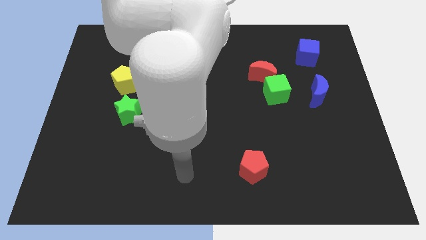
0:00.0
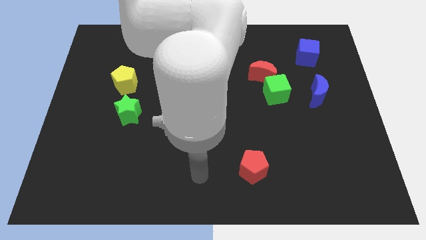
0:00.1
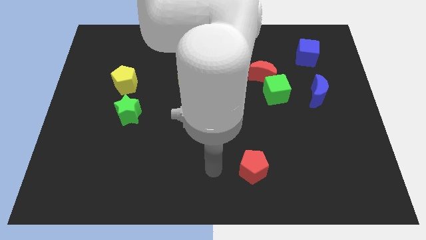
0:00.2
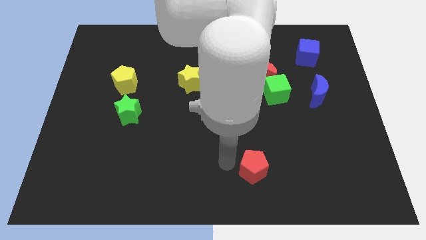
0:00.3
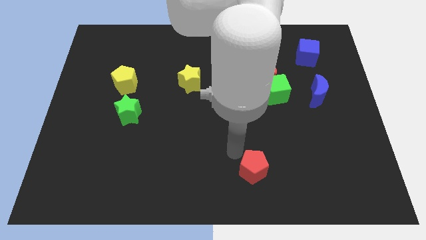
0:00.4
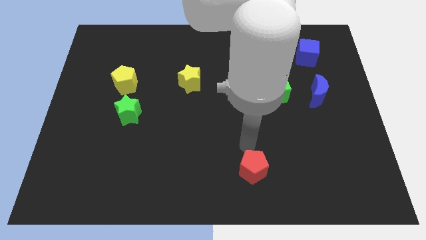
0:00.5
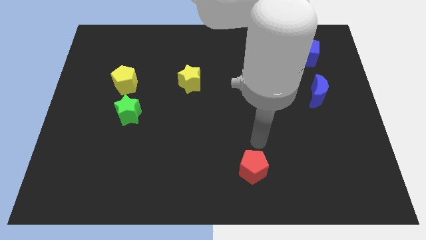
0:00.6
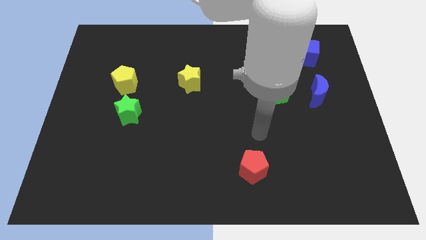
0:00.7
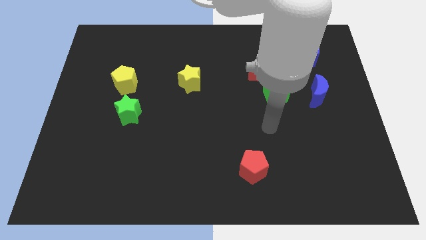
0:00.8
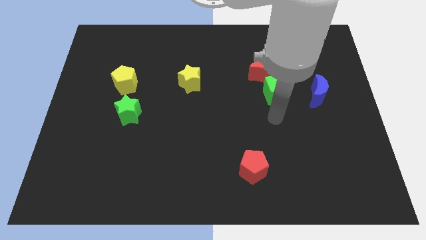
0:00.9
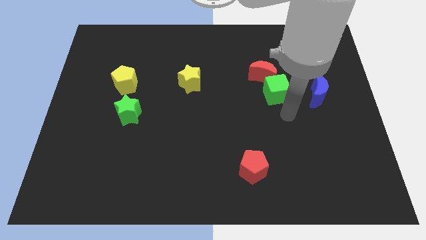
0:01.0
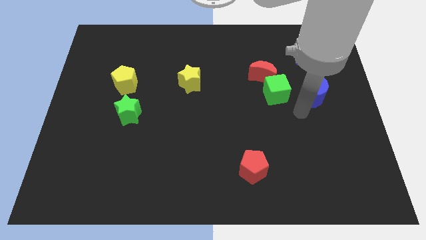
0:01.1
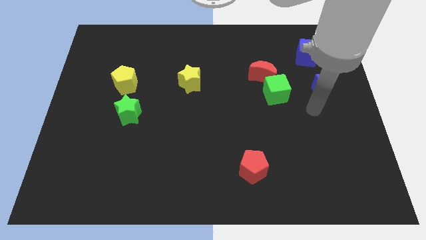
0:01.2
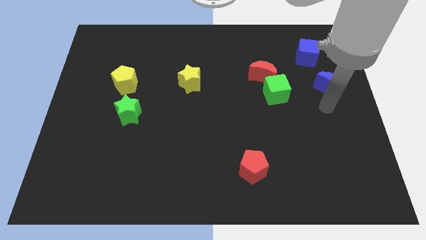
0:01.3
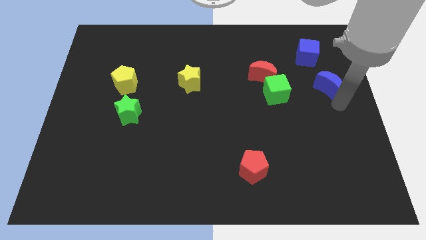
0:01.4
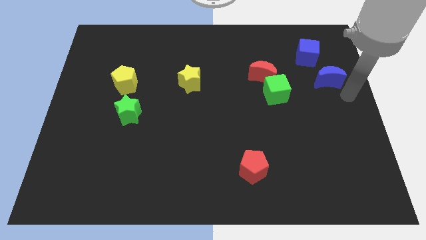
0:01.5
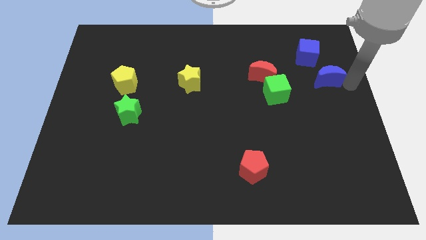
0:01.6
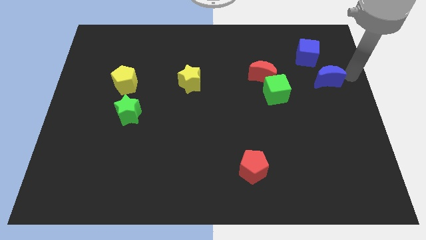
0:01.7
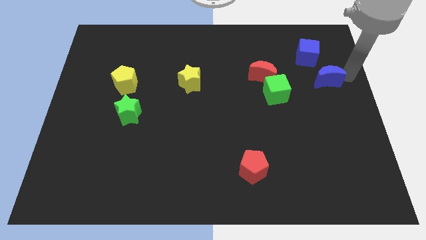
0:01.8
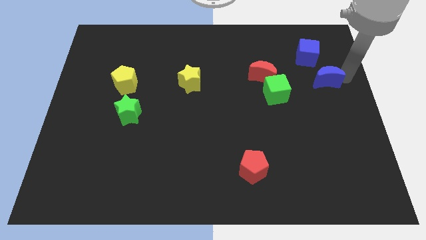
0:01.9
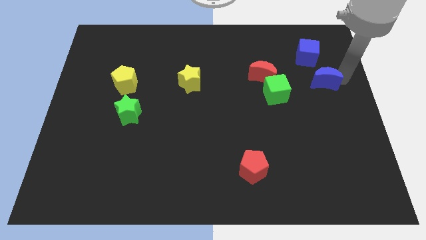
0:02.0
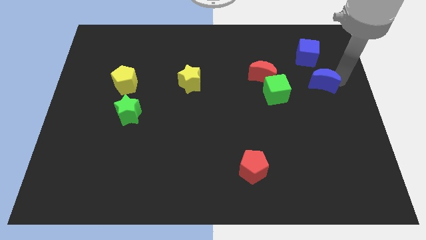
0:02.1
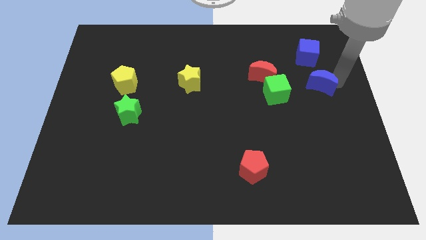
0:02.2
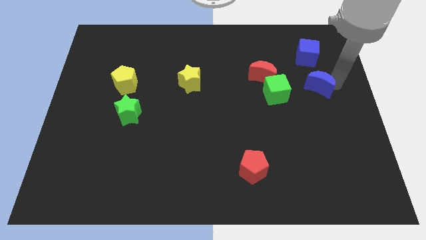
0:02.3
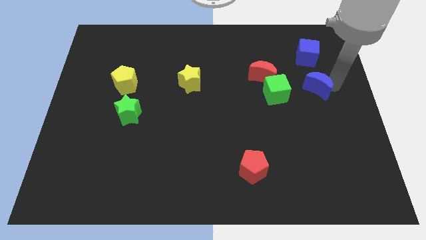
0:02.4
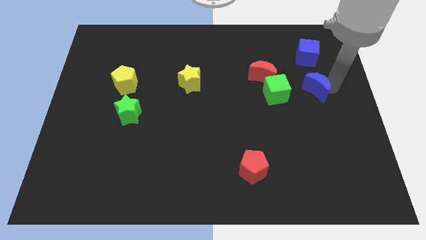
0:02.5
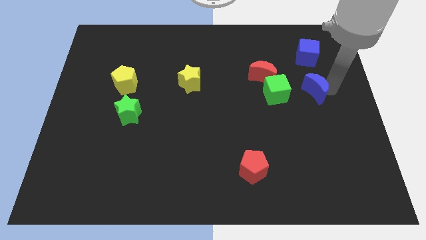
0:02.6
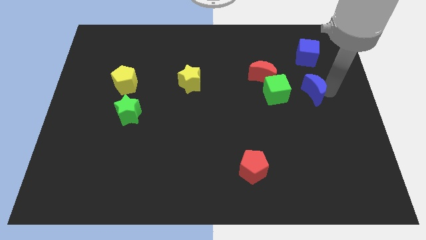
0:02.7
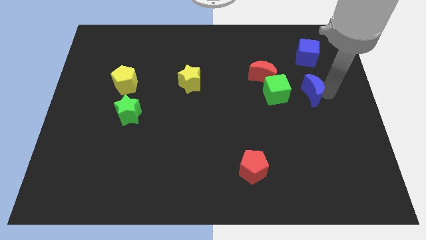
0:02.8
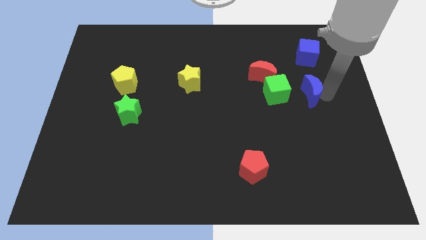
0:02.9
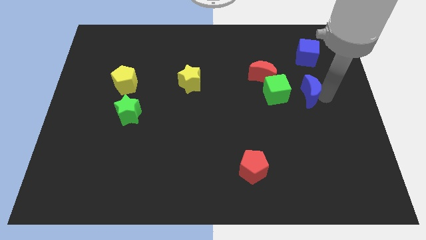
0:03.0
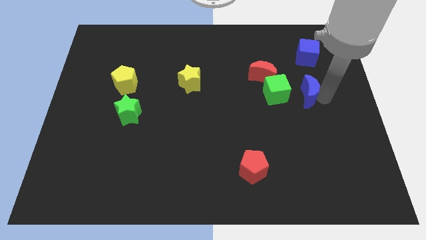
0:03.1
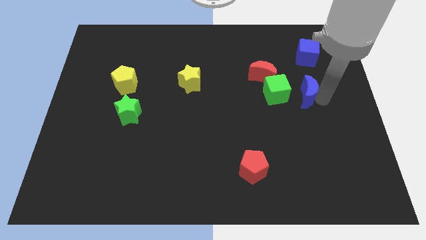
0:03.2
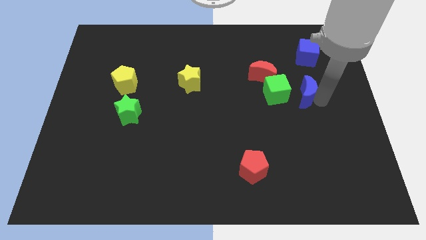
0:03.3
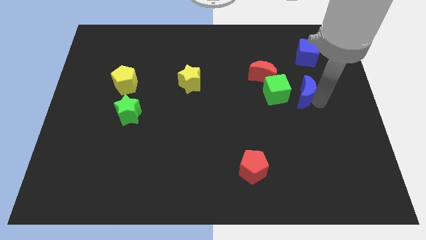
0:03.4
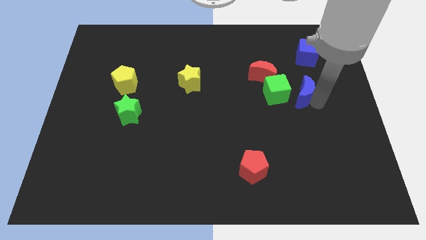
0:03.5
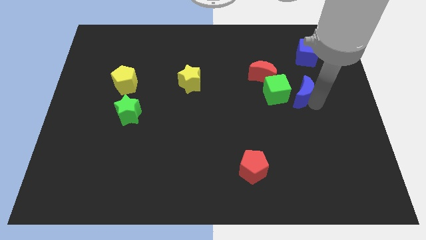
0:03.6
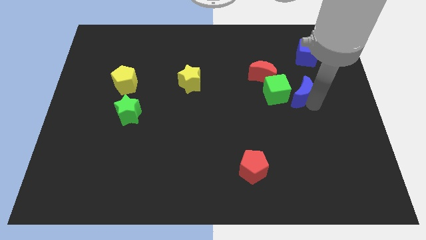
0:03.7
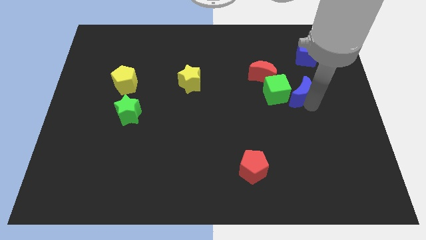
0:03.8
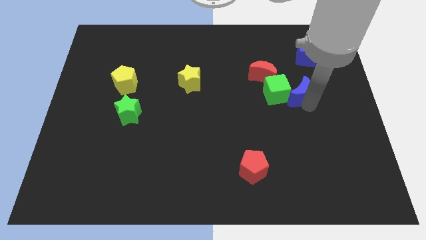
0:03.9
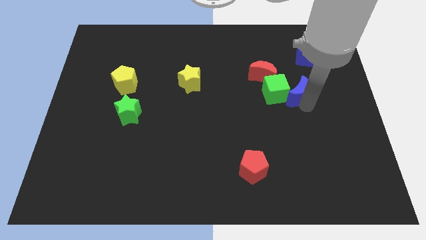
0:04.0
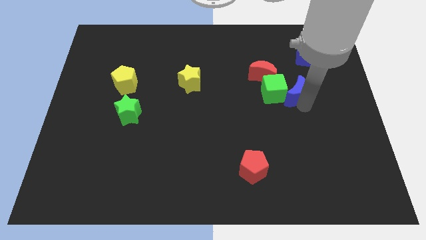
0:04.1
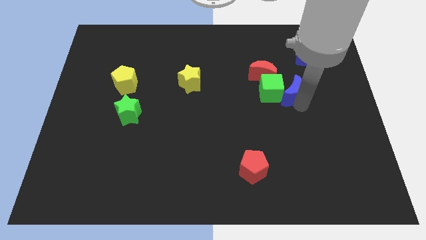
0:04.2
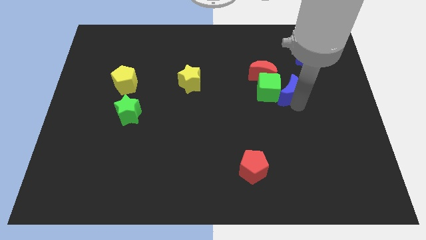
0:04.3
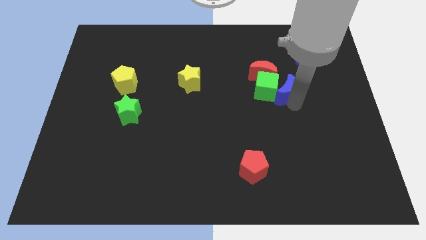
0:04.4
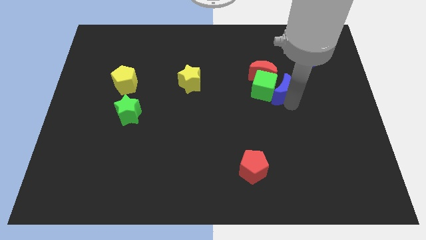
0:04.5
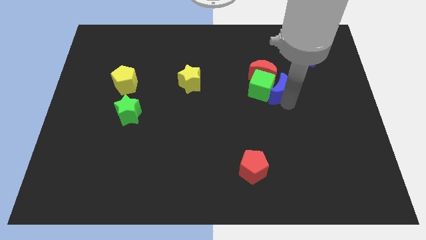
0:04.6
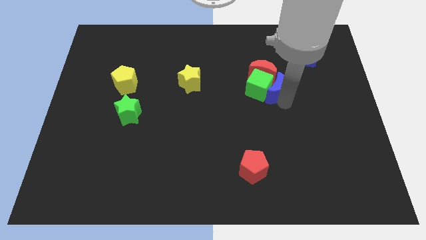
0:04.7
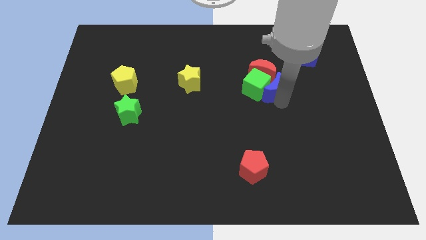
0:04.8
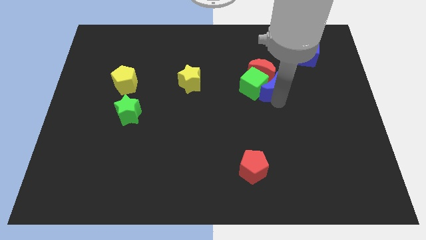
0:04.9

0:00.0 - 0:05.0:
put the blue moon to the red moon

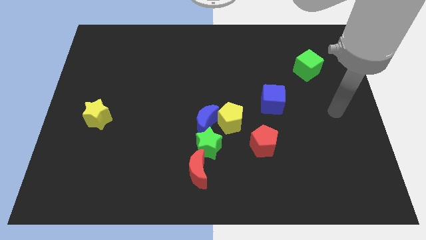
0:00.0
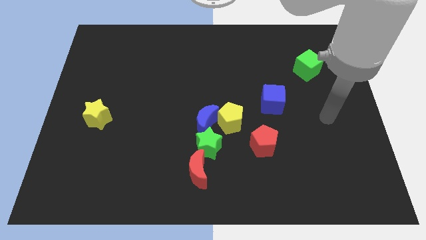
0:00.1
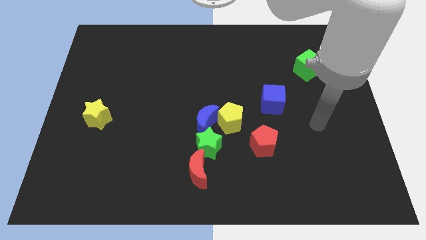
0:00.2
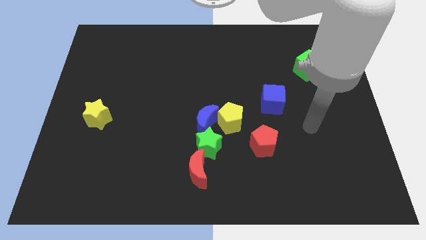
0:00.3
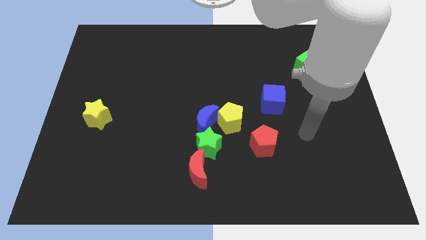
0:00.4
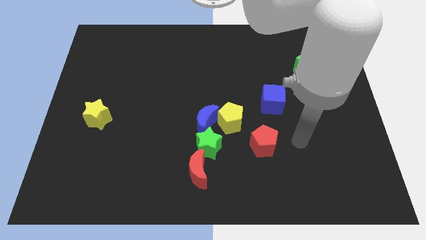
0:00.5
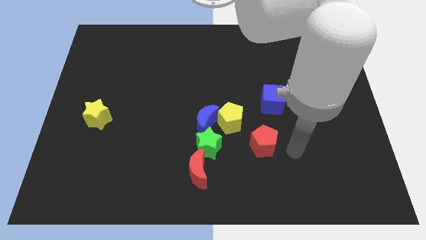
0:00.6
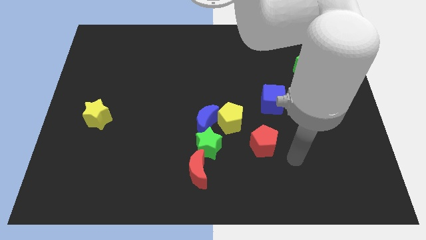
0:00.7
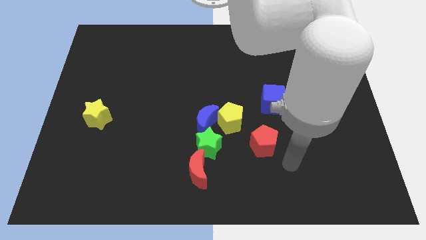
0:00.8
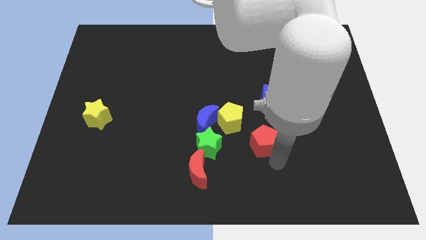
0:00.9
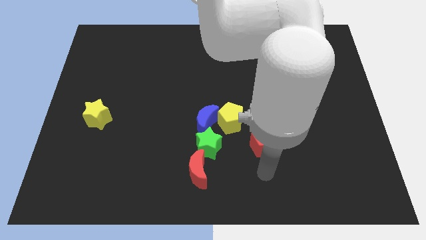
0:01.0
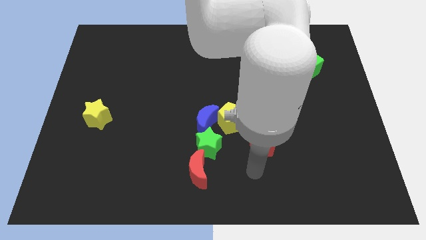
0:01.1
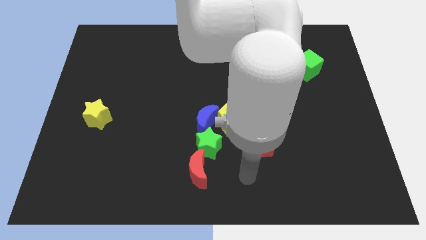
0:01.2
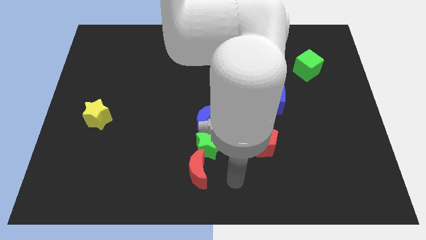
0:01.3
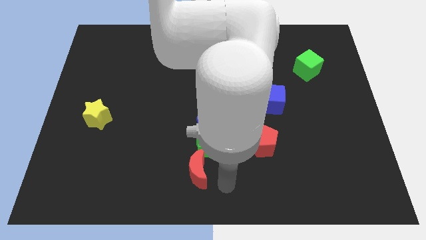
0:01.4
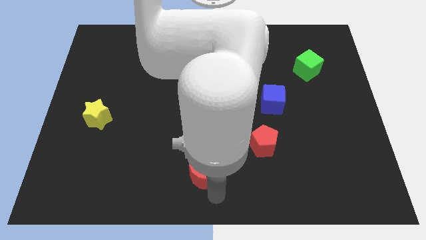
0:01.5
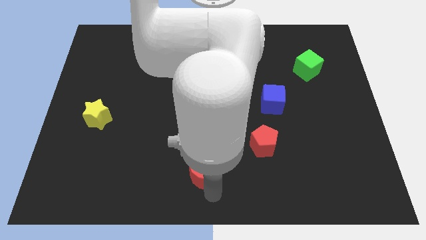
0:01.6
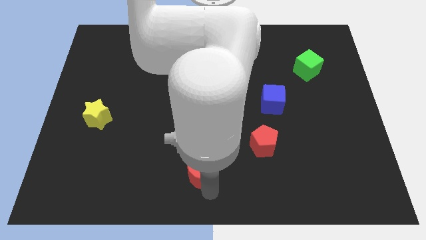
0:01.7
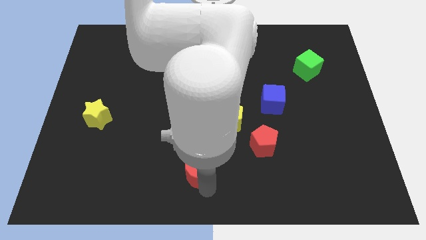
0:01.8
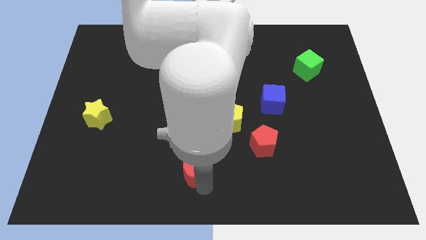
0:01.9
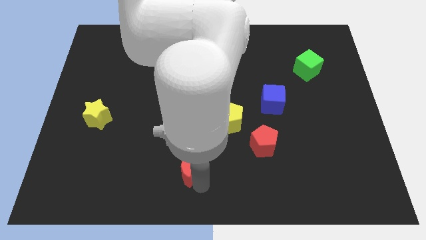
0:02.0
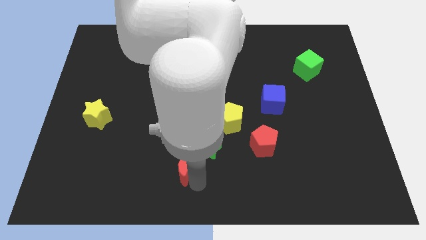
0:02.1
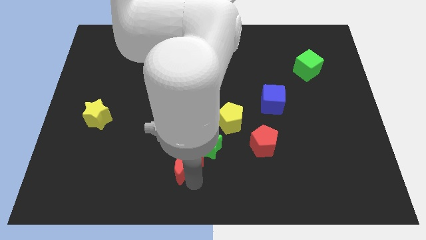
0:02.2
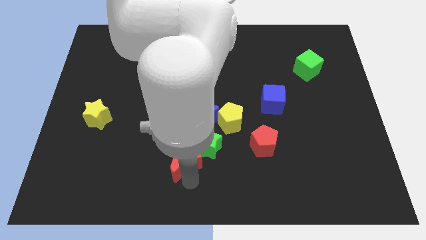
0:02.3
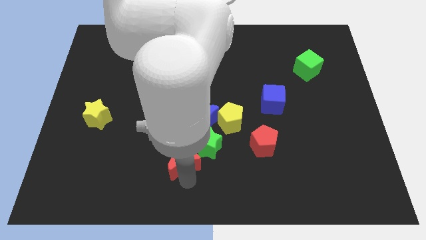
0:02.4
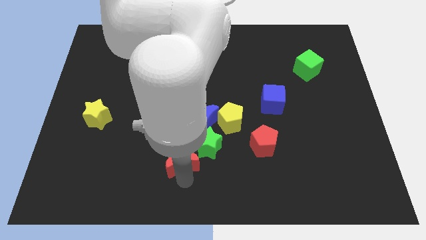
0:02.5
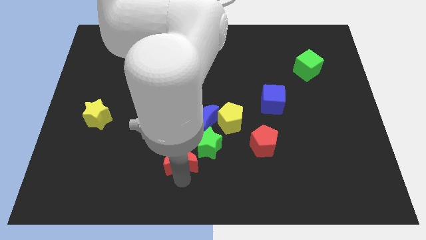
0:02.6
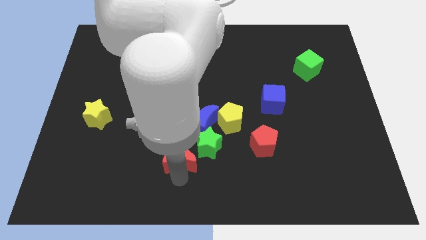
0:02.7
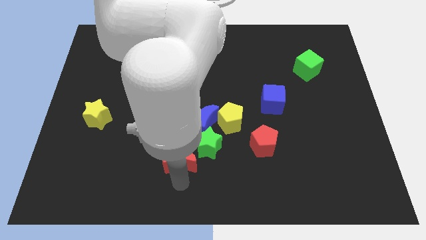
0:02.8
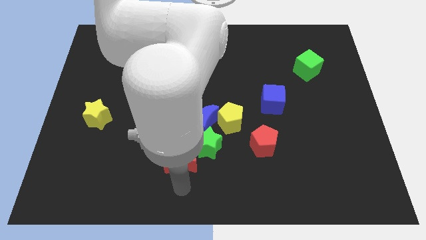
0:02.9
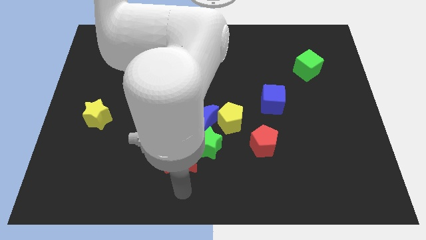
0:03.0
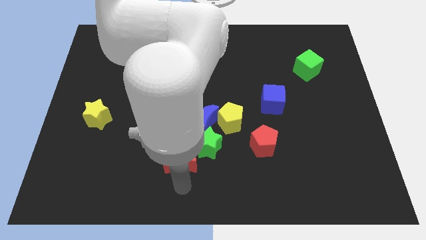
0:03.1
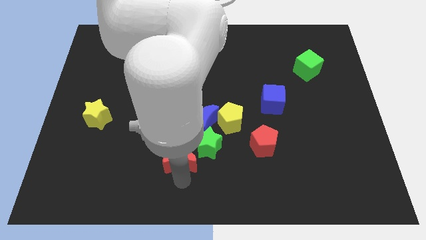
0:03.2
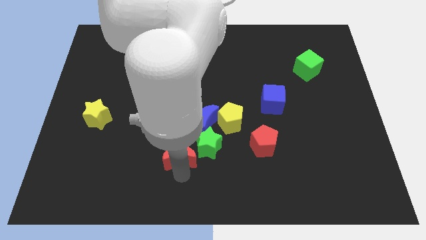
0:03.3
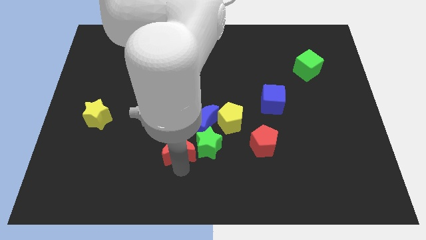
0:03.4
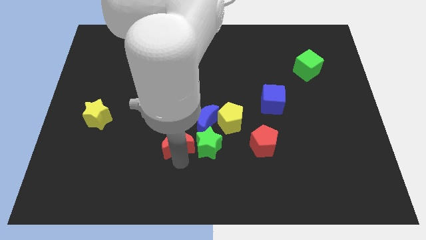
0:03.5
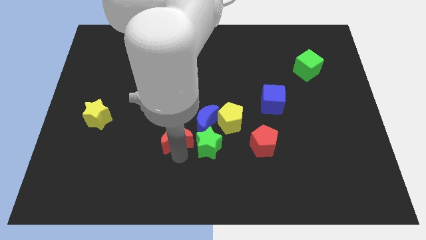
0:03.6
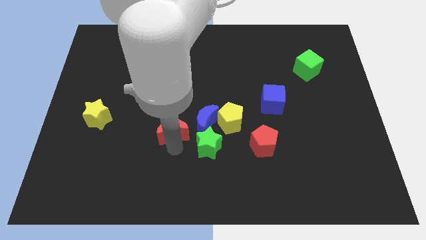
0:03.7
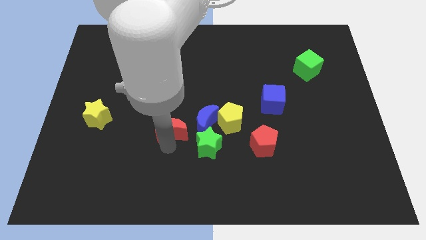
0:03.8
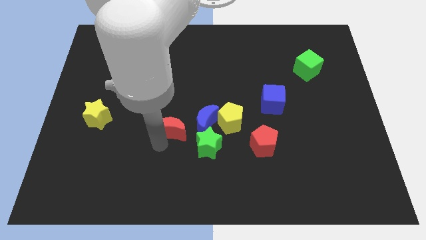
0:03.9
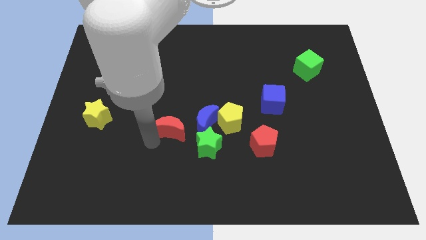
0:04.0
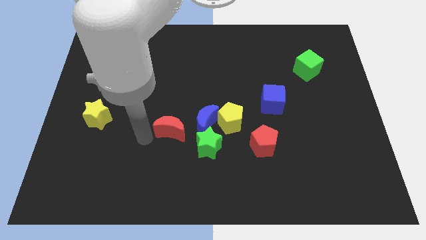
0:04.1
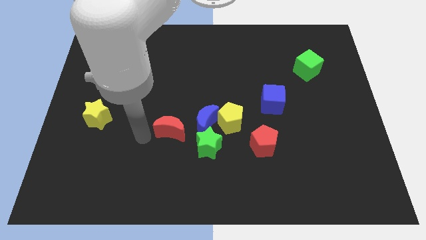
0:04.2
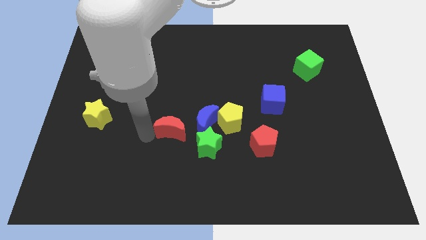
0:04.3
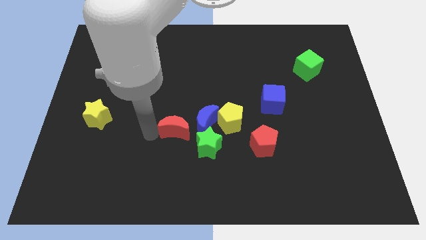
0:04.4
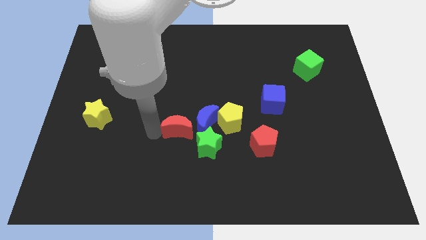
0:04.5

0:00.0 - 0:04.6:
slide the red moon to the blue moon
